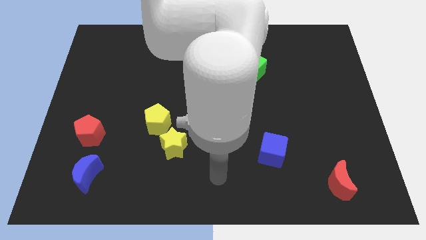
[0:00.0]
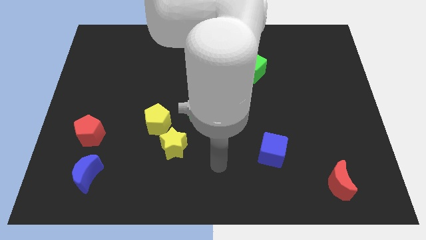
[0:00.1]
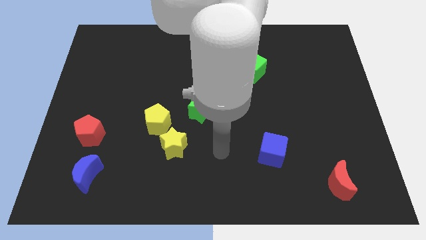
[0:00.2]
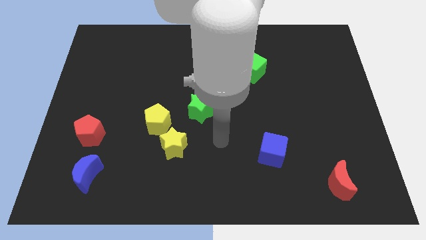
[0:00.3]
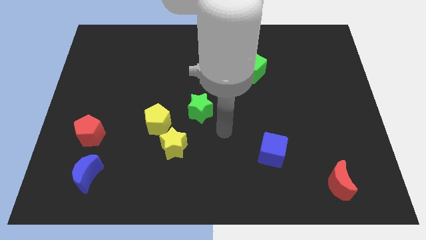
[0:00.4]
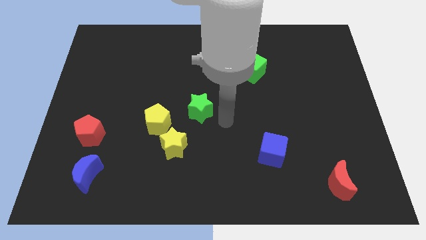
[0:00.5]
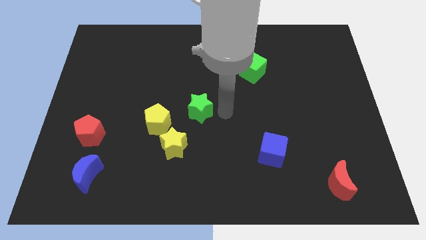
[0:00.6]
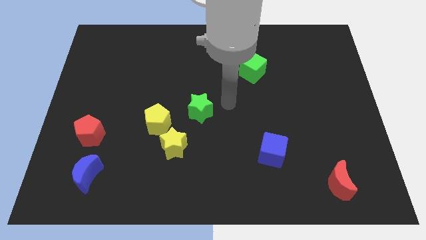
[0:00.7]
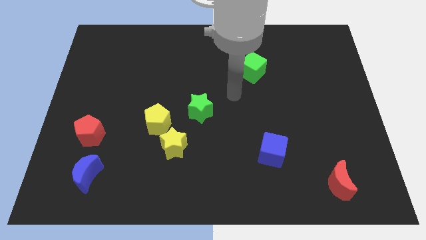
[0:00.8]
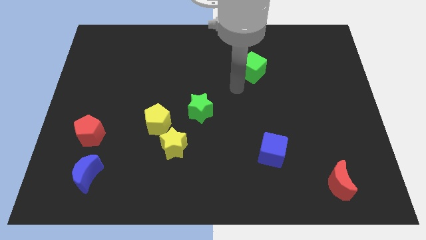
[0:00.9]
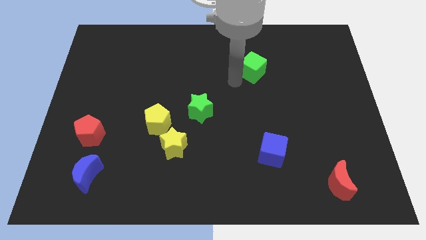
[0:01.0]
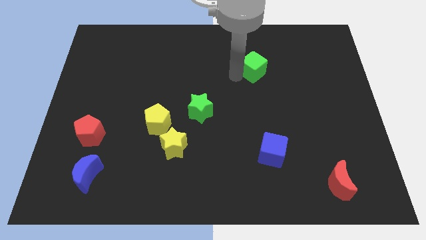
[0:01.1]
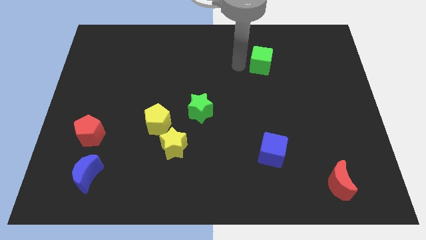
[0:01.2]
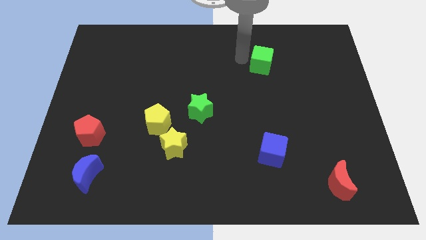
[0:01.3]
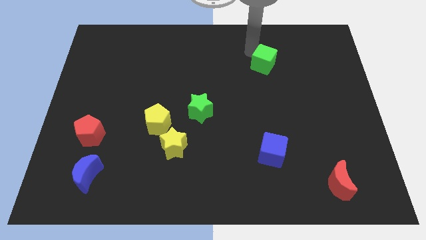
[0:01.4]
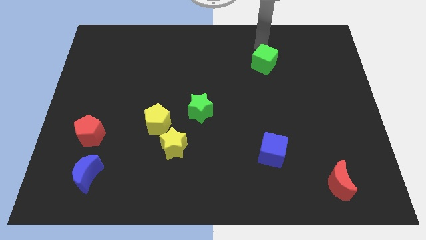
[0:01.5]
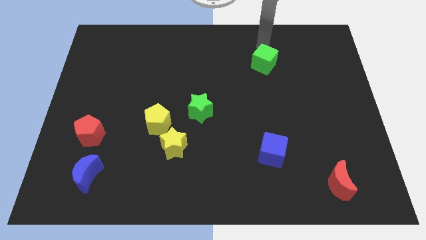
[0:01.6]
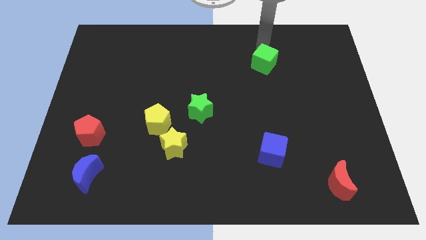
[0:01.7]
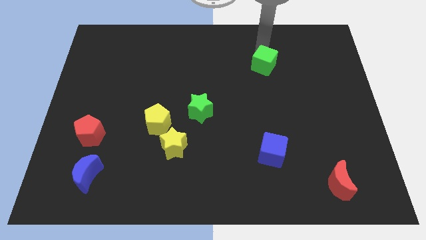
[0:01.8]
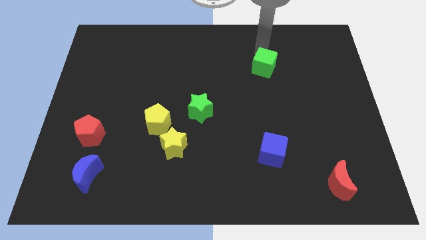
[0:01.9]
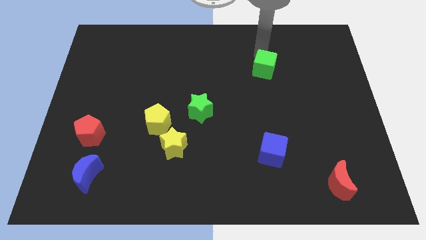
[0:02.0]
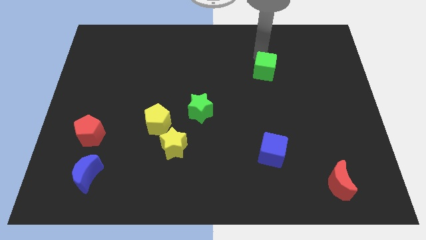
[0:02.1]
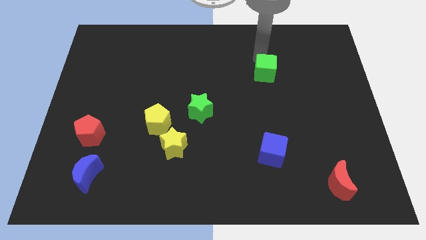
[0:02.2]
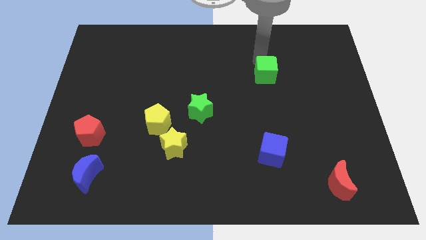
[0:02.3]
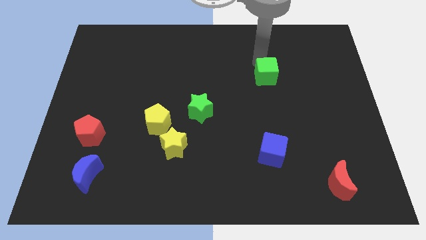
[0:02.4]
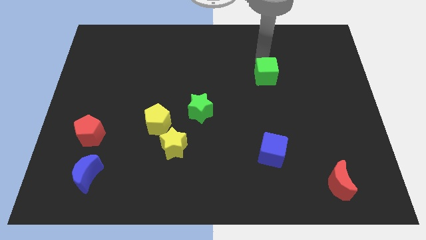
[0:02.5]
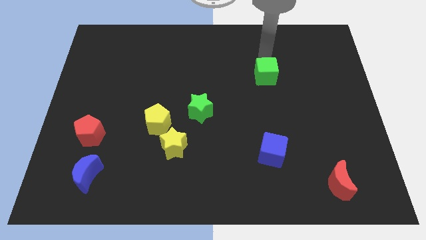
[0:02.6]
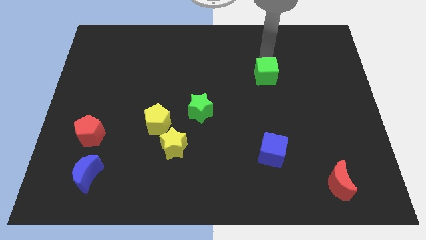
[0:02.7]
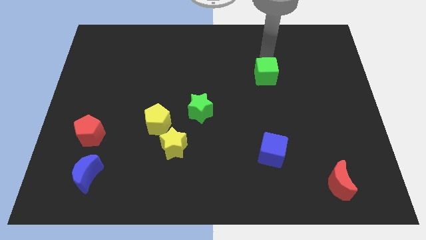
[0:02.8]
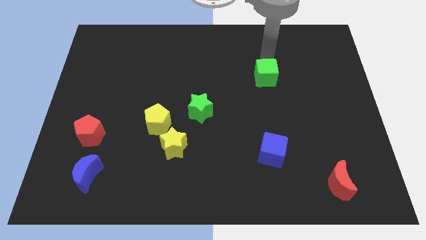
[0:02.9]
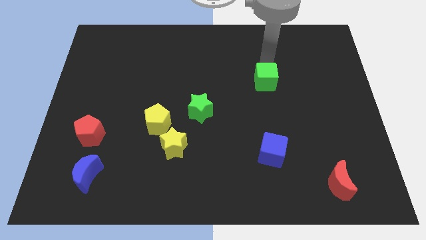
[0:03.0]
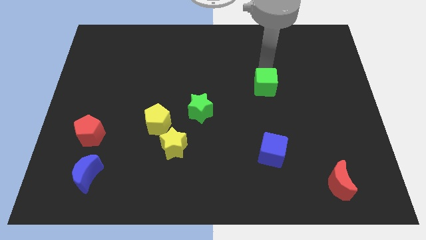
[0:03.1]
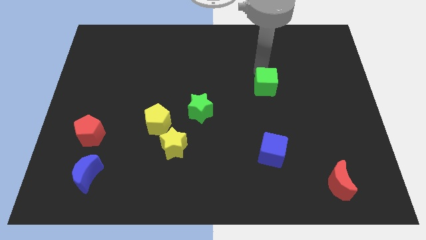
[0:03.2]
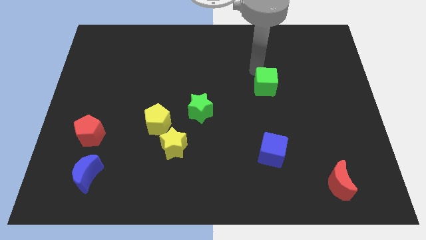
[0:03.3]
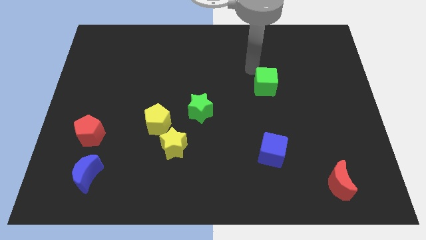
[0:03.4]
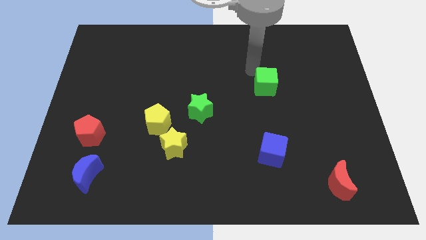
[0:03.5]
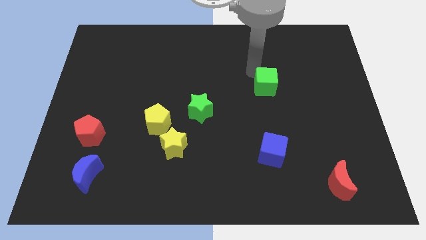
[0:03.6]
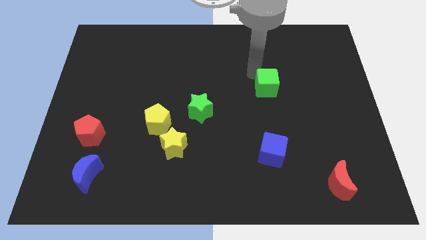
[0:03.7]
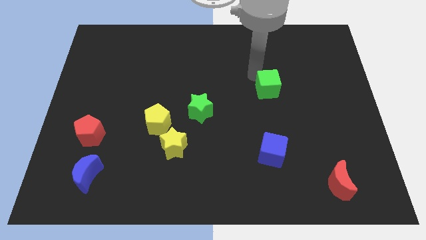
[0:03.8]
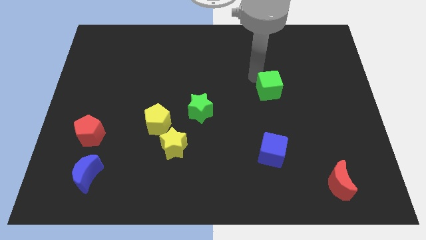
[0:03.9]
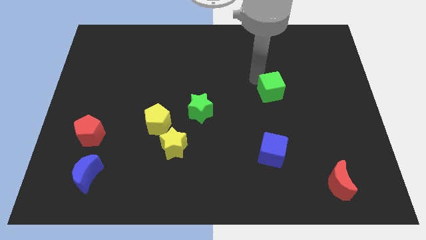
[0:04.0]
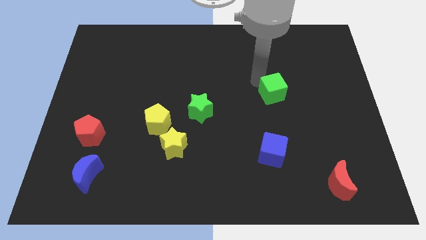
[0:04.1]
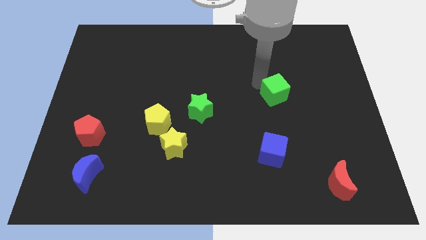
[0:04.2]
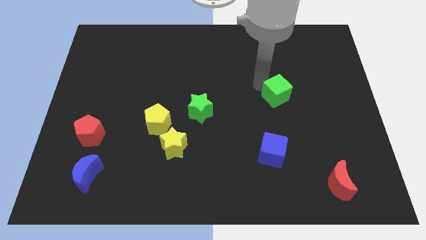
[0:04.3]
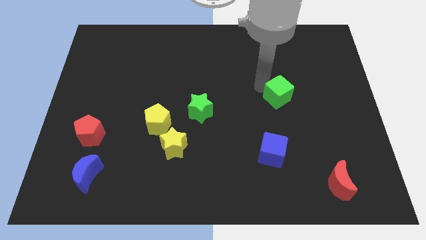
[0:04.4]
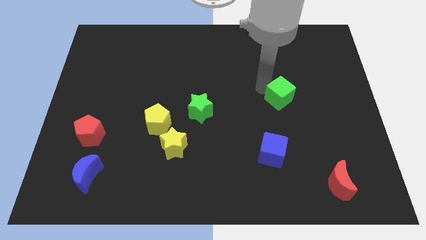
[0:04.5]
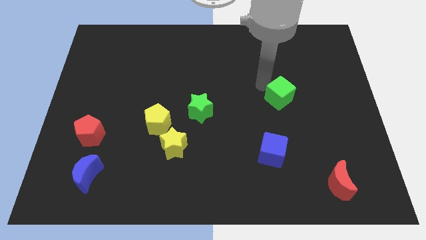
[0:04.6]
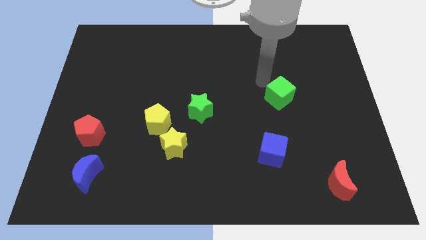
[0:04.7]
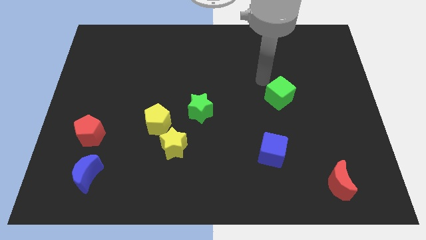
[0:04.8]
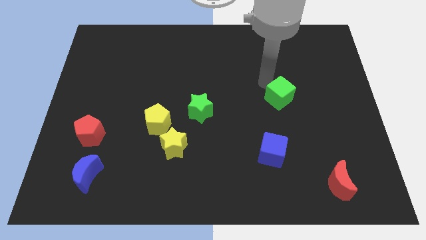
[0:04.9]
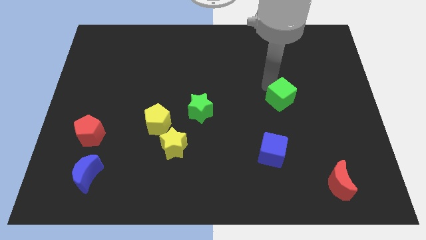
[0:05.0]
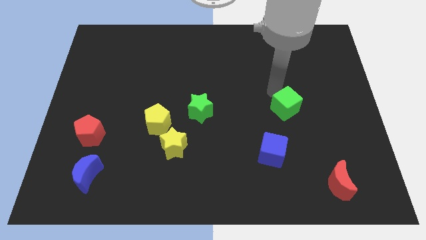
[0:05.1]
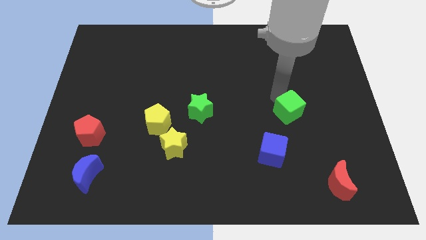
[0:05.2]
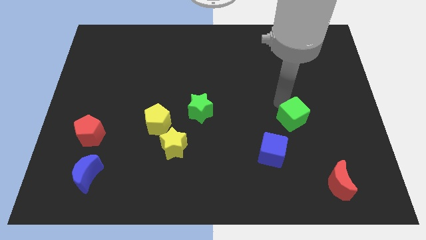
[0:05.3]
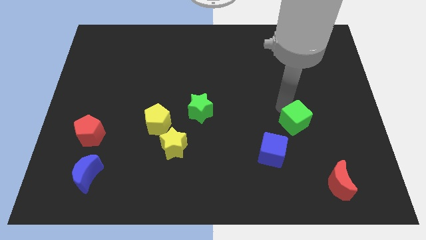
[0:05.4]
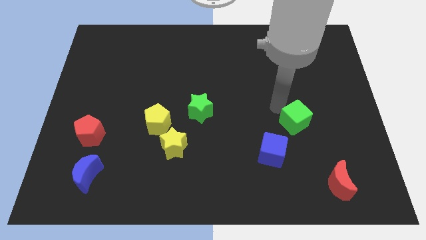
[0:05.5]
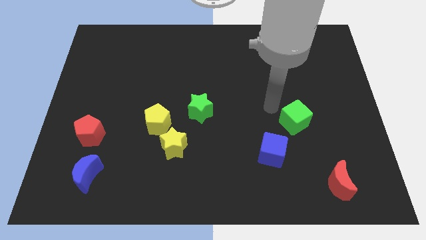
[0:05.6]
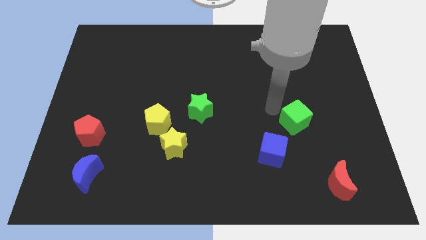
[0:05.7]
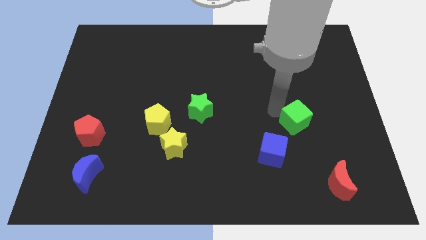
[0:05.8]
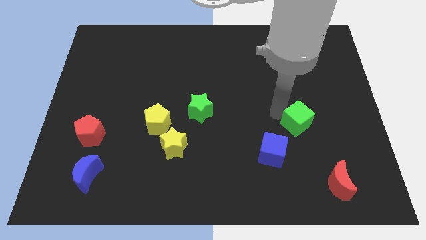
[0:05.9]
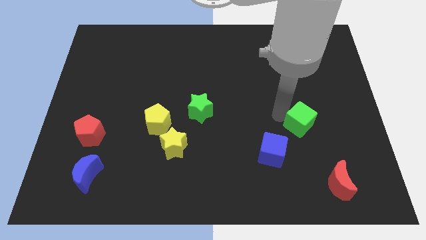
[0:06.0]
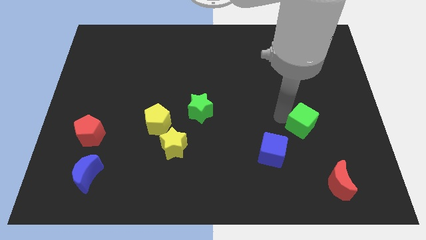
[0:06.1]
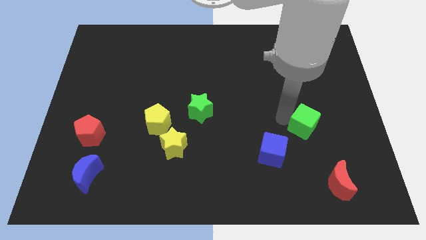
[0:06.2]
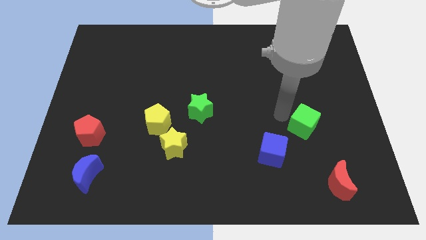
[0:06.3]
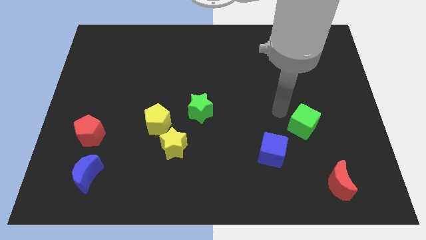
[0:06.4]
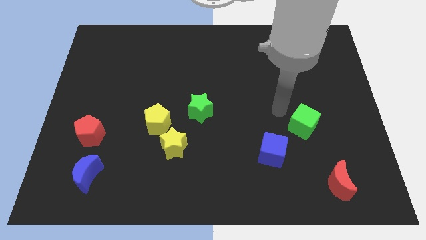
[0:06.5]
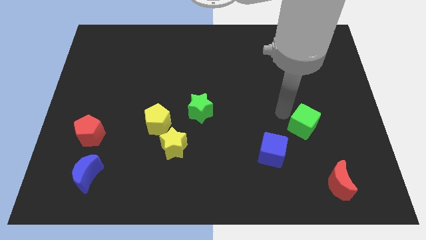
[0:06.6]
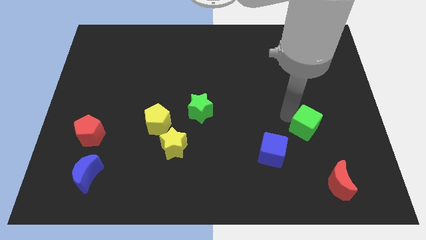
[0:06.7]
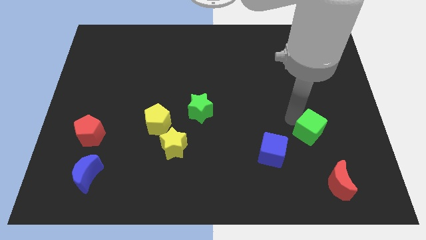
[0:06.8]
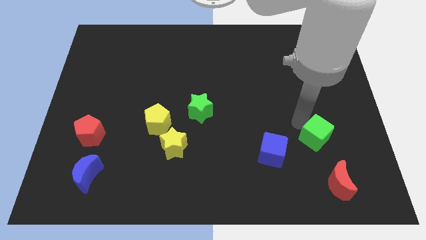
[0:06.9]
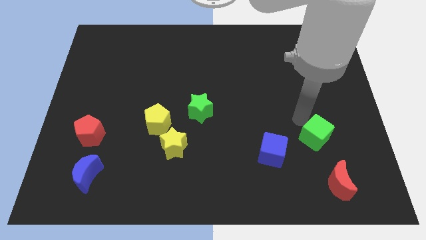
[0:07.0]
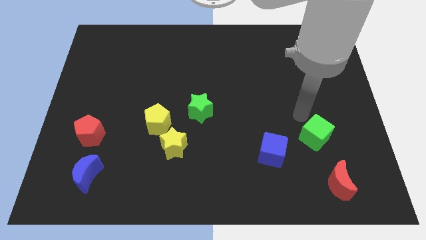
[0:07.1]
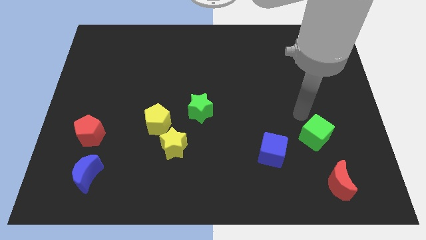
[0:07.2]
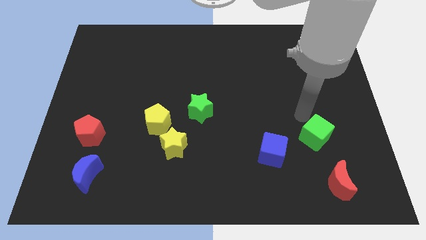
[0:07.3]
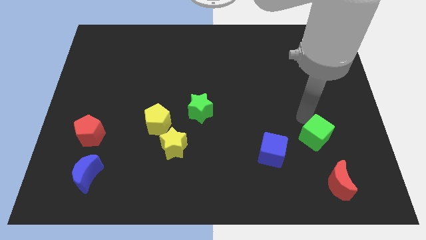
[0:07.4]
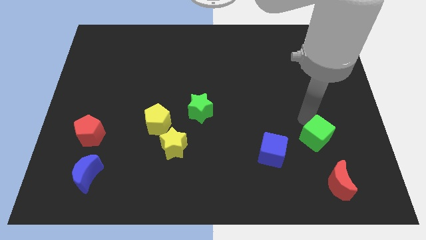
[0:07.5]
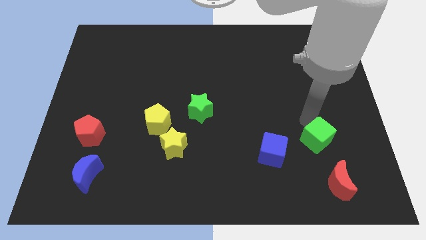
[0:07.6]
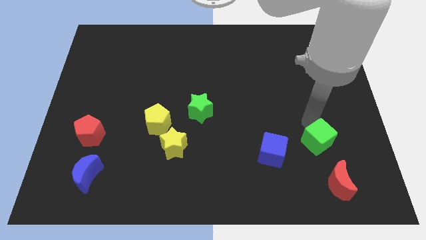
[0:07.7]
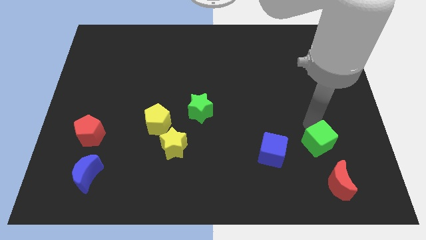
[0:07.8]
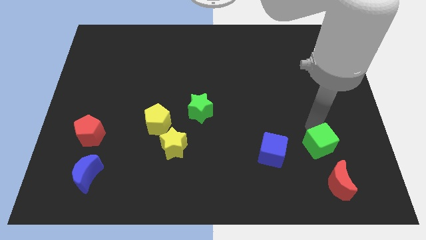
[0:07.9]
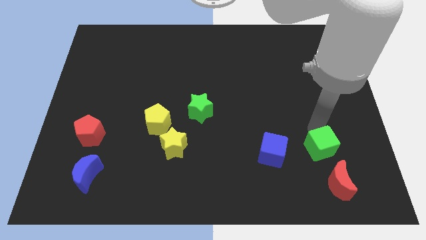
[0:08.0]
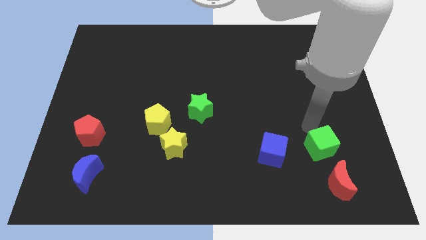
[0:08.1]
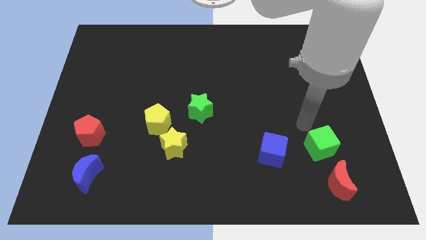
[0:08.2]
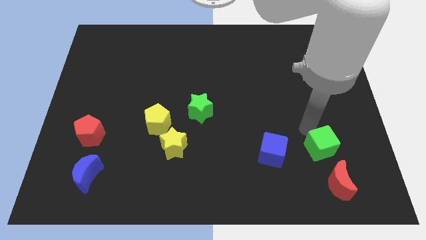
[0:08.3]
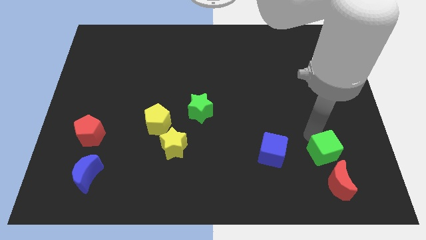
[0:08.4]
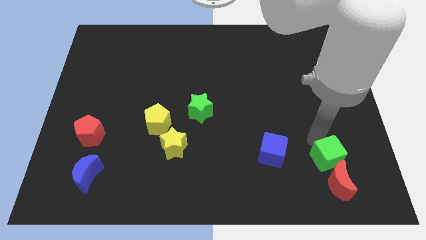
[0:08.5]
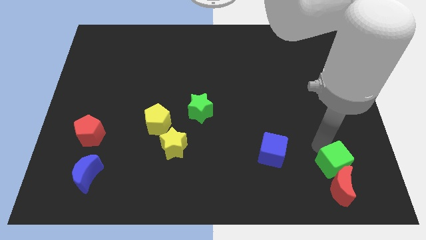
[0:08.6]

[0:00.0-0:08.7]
move the green cube towards the red moon
